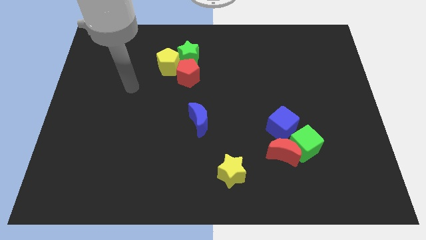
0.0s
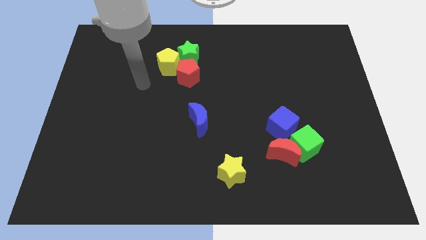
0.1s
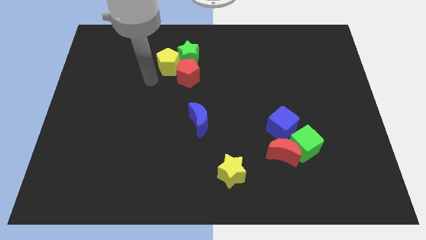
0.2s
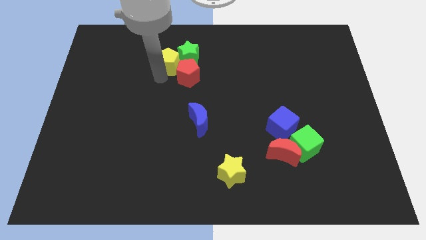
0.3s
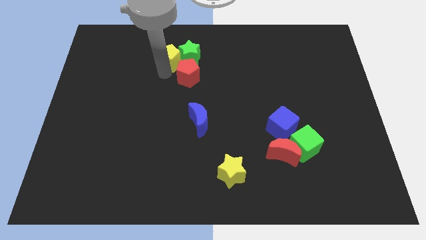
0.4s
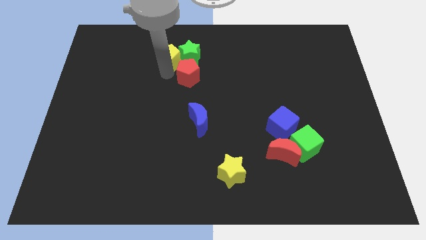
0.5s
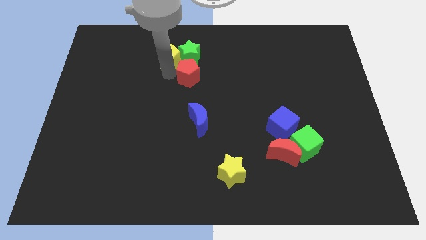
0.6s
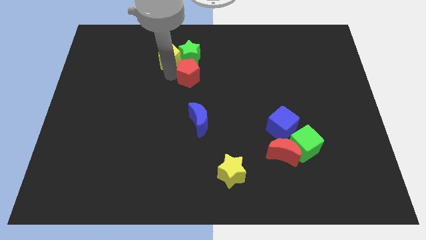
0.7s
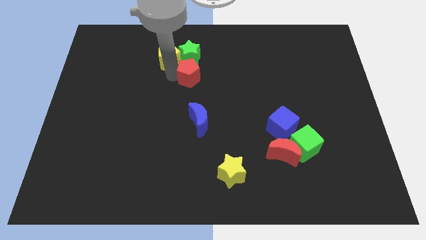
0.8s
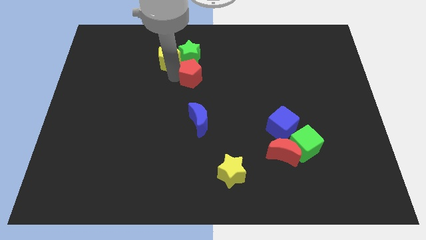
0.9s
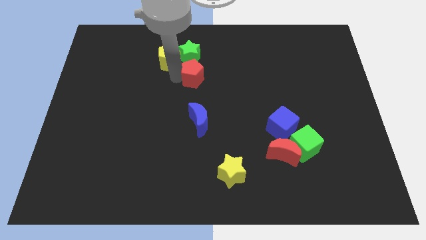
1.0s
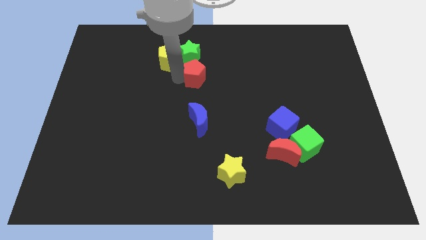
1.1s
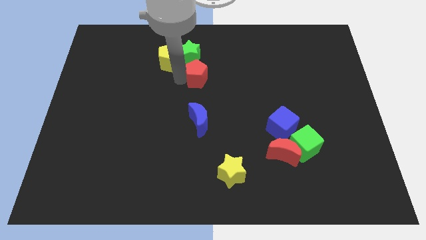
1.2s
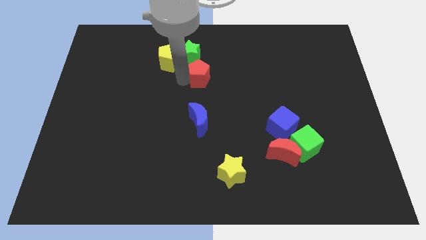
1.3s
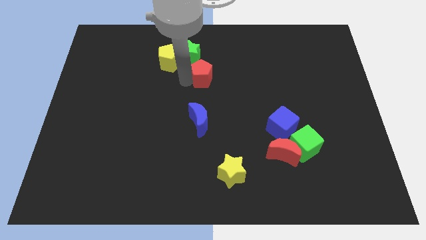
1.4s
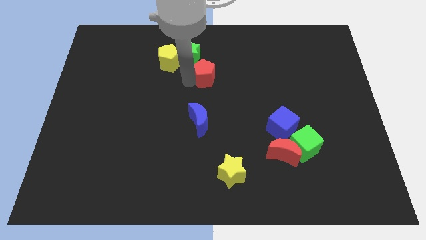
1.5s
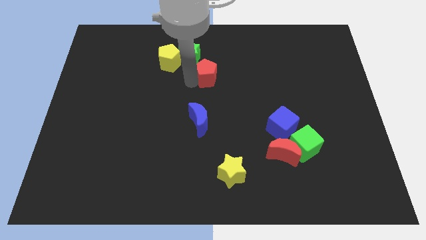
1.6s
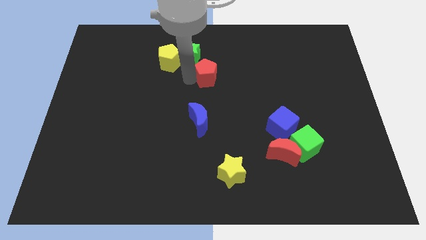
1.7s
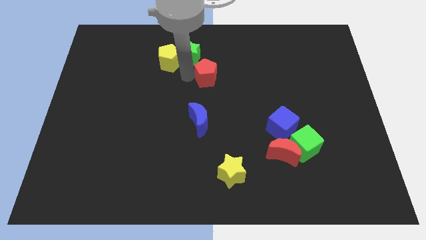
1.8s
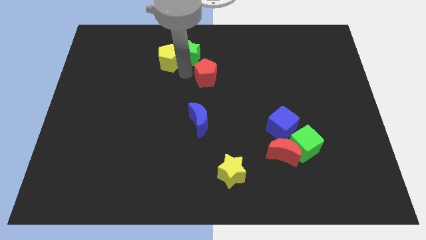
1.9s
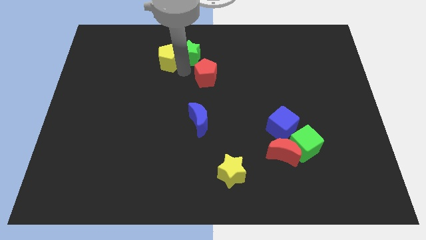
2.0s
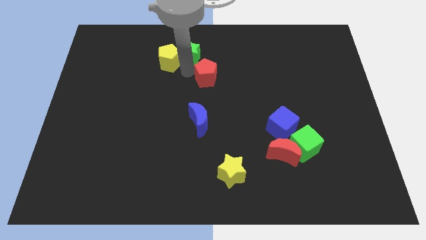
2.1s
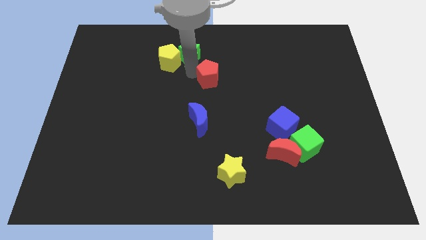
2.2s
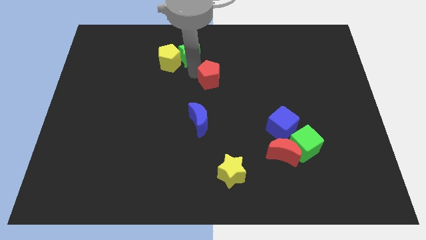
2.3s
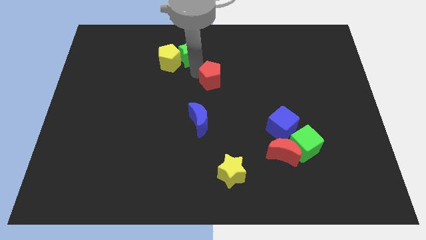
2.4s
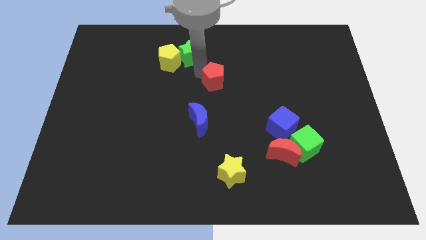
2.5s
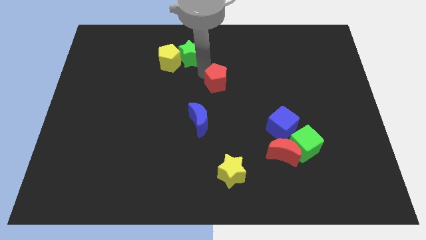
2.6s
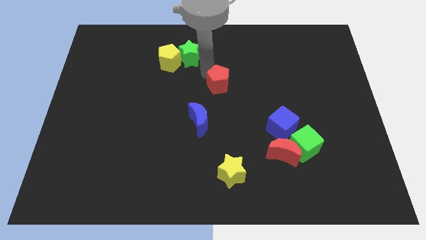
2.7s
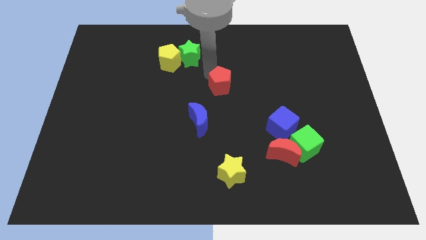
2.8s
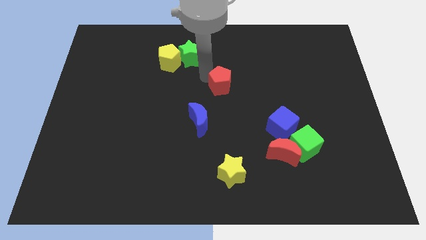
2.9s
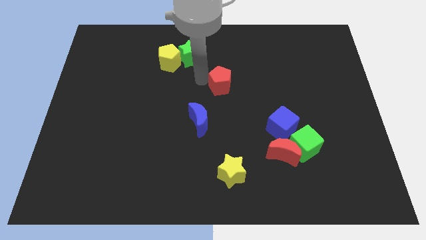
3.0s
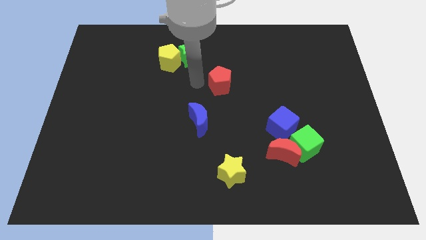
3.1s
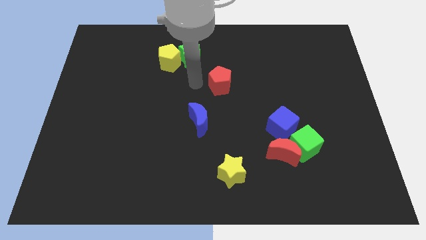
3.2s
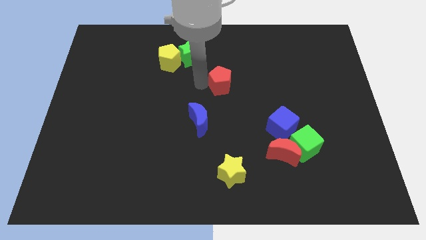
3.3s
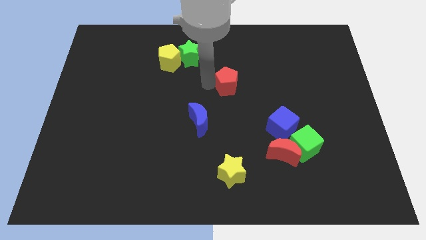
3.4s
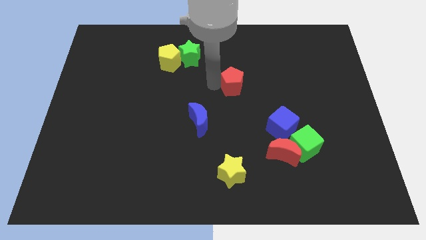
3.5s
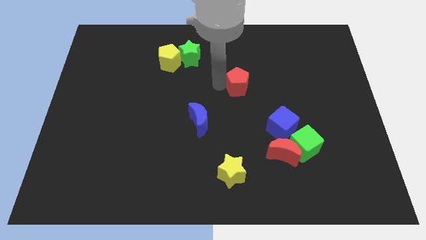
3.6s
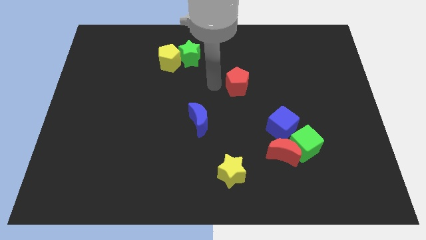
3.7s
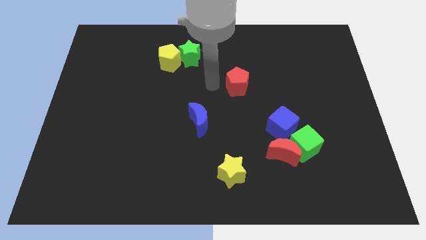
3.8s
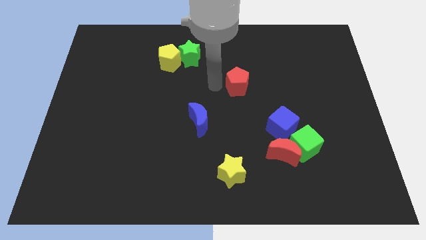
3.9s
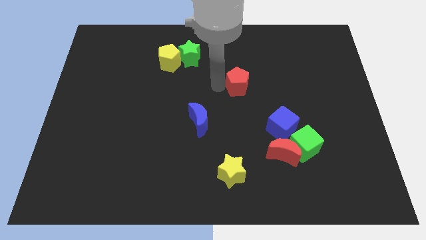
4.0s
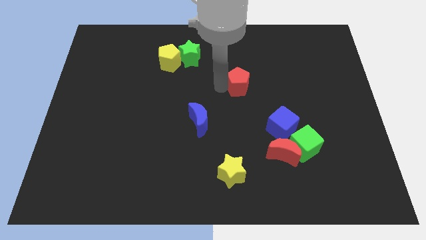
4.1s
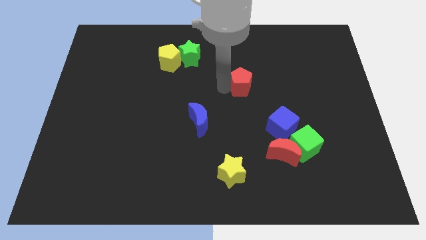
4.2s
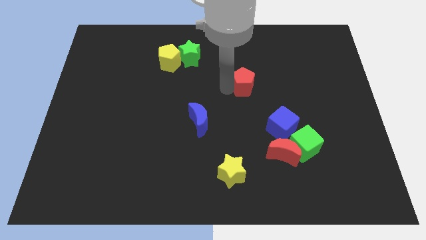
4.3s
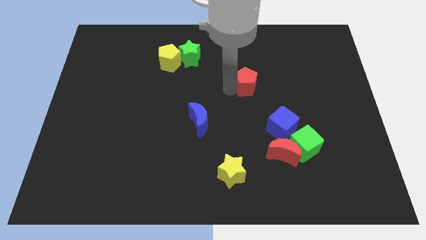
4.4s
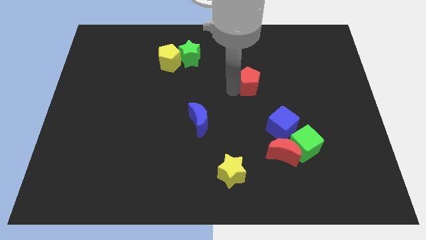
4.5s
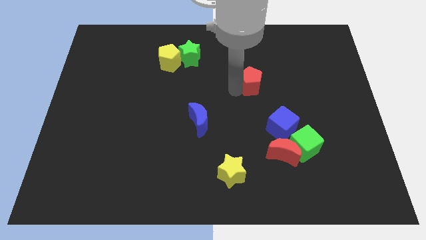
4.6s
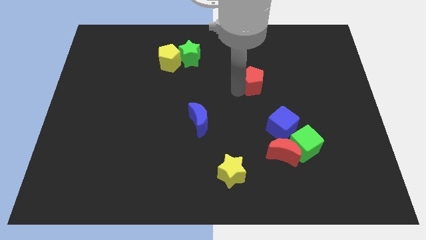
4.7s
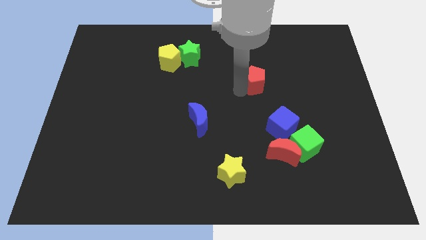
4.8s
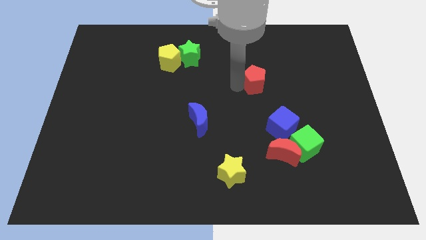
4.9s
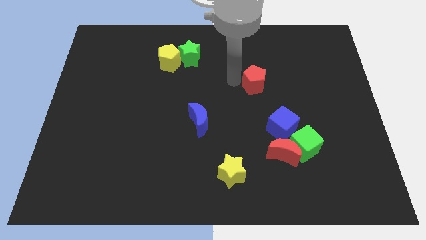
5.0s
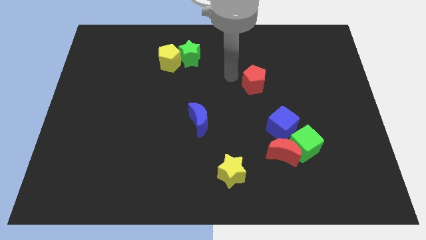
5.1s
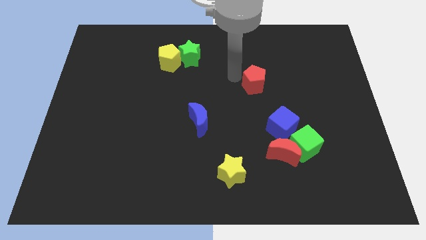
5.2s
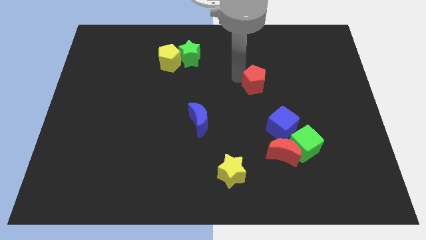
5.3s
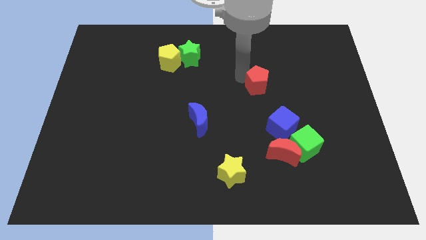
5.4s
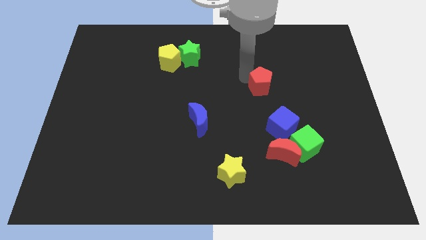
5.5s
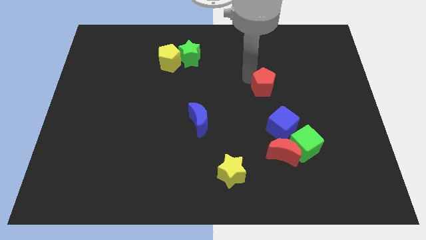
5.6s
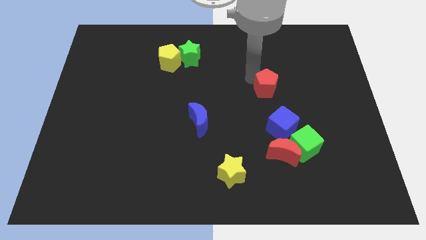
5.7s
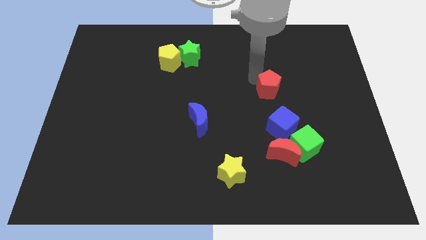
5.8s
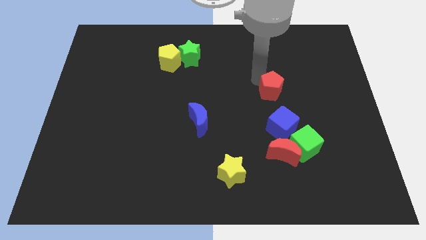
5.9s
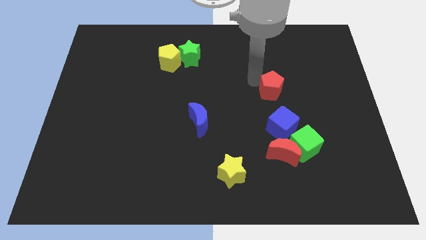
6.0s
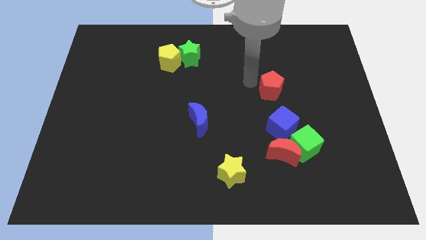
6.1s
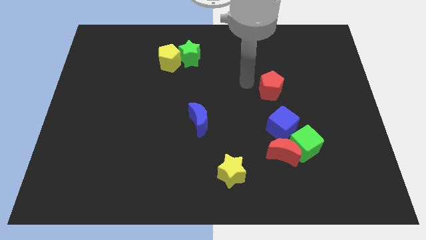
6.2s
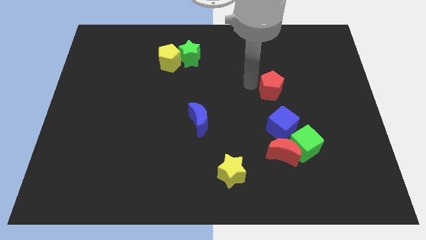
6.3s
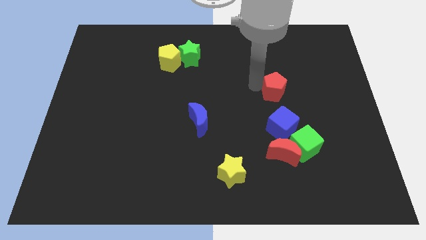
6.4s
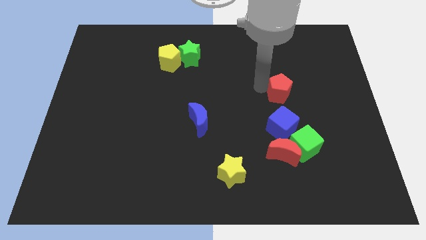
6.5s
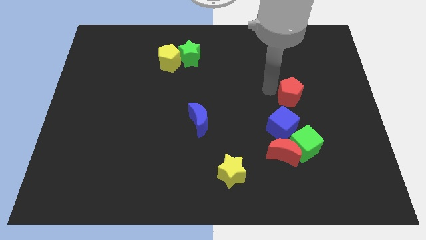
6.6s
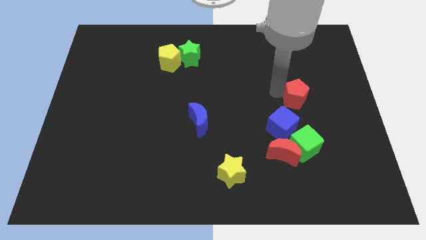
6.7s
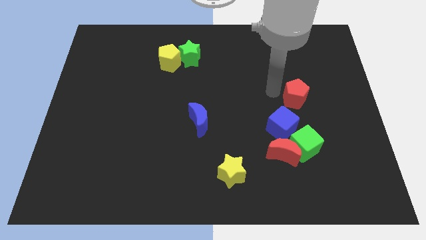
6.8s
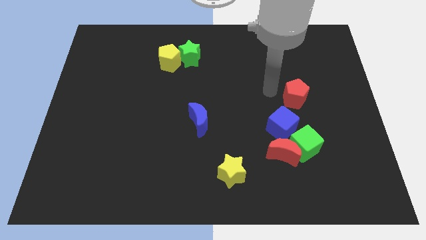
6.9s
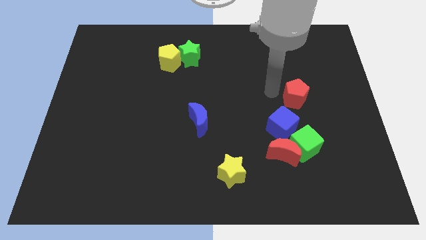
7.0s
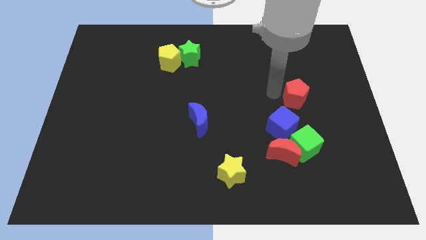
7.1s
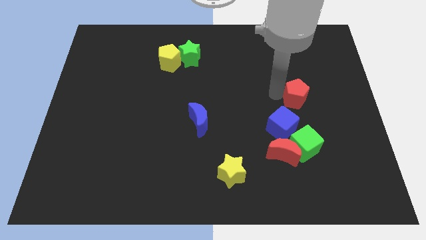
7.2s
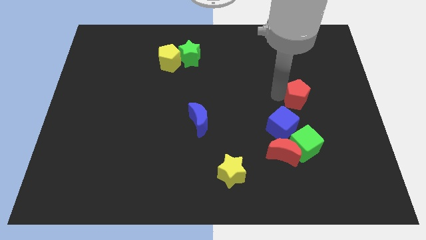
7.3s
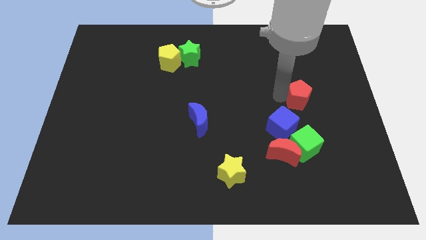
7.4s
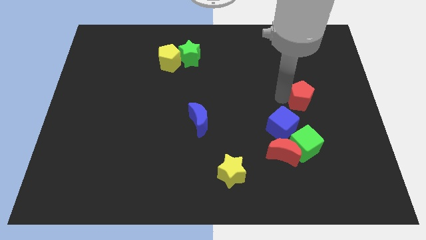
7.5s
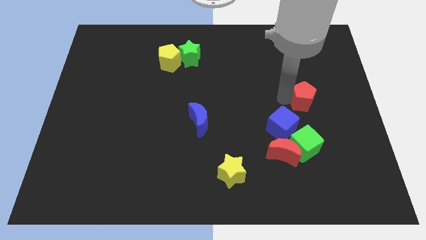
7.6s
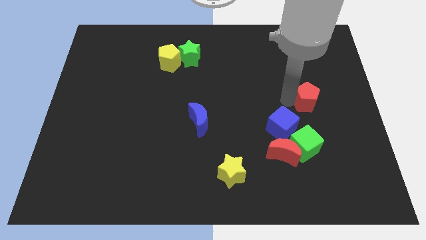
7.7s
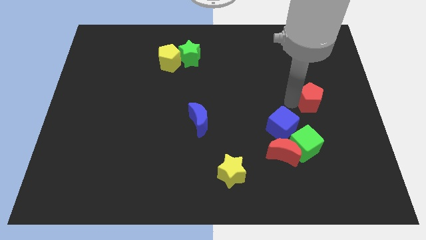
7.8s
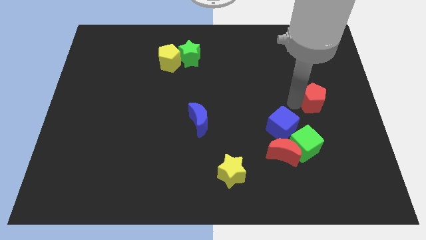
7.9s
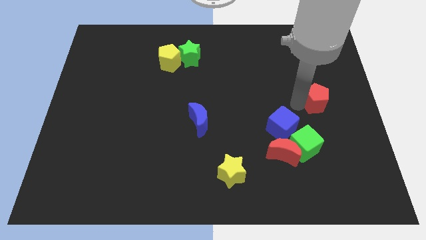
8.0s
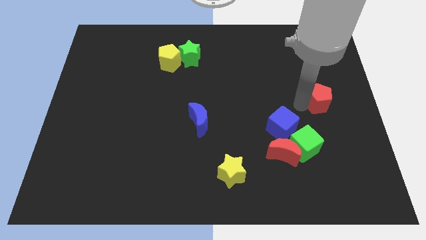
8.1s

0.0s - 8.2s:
push the red pentagon to the right side
